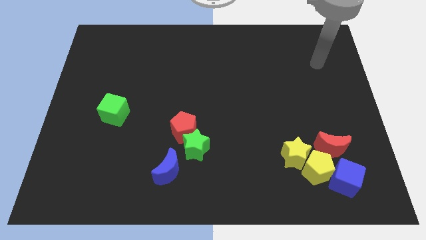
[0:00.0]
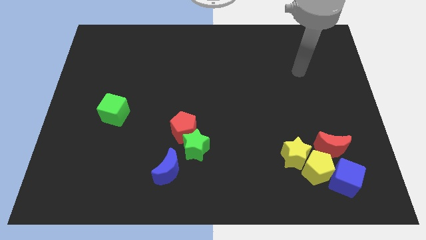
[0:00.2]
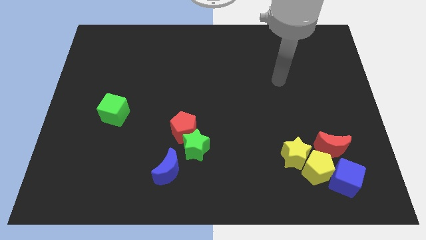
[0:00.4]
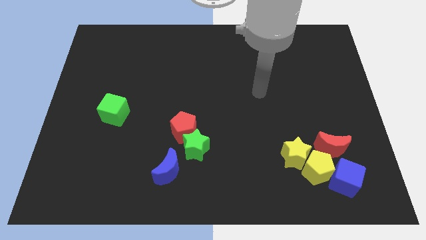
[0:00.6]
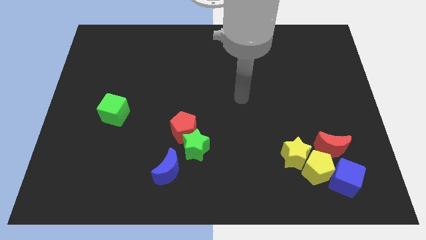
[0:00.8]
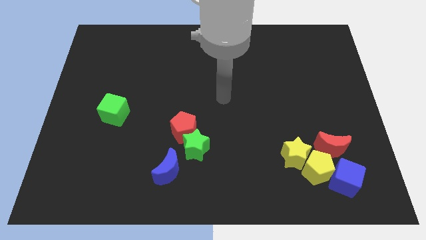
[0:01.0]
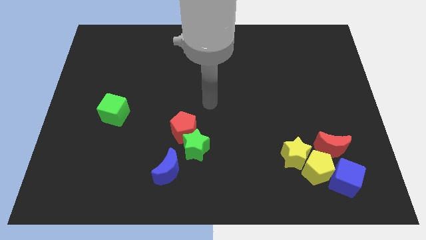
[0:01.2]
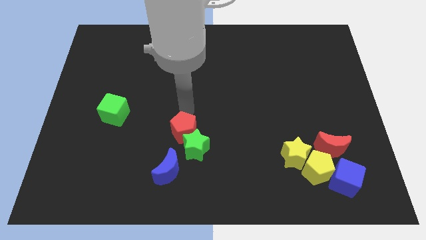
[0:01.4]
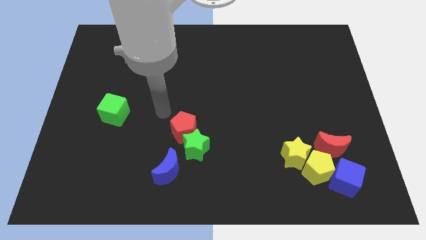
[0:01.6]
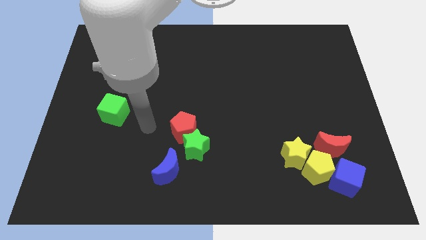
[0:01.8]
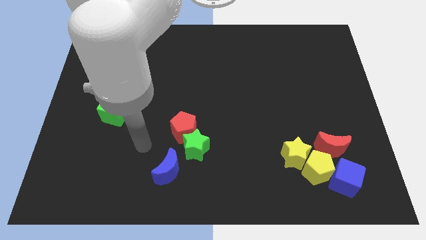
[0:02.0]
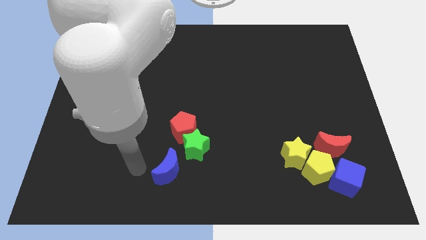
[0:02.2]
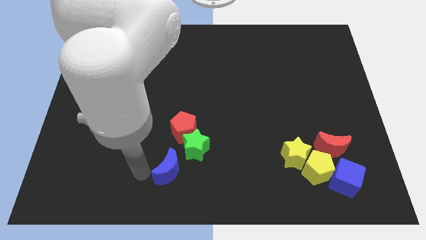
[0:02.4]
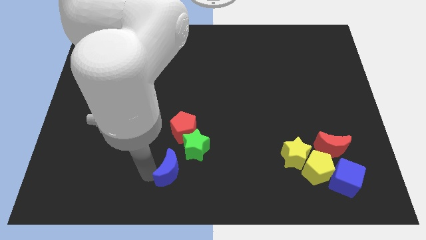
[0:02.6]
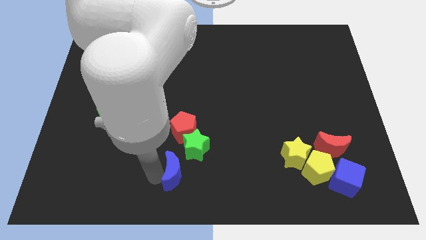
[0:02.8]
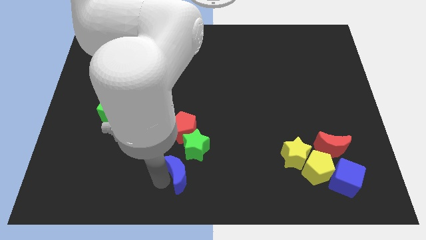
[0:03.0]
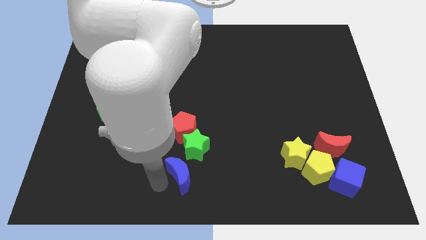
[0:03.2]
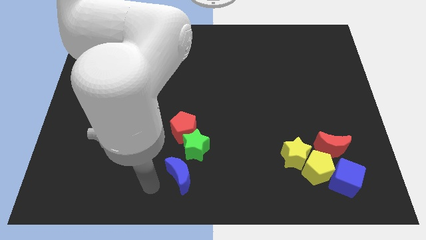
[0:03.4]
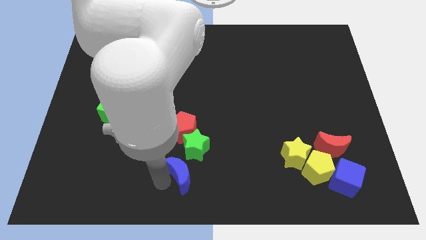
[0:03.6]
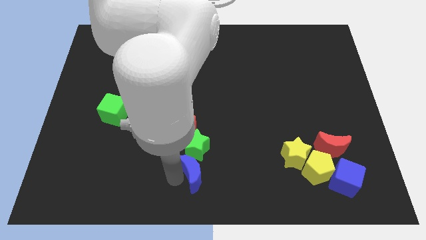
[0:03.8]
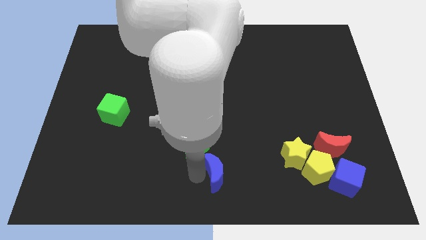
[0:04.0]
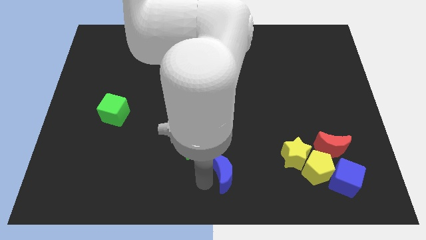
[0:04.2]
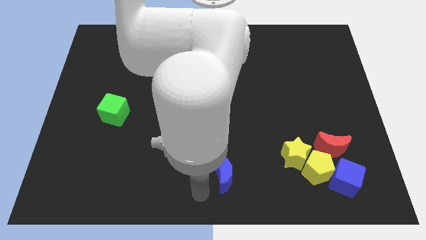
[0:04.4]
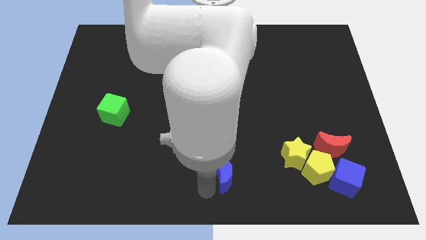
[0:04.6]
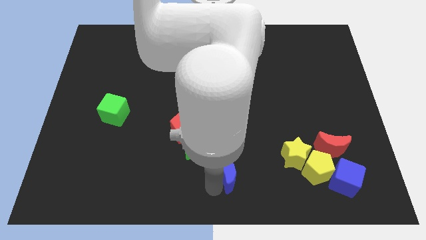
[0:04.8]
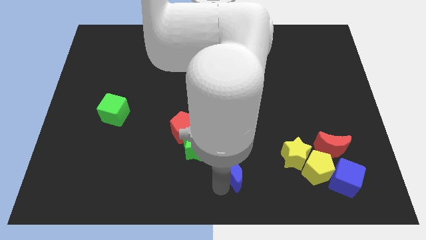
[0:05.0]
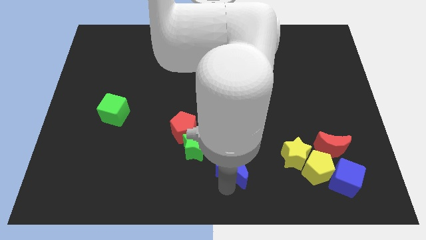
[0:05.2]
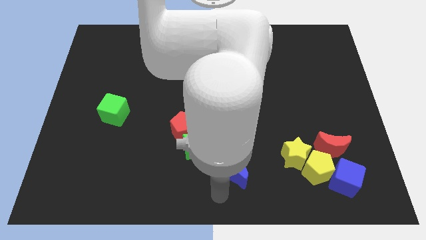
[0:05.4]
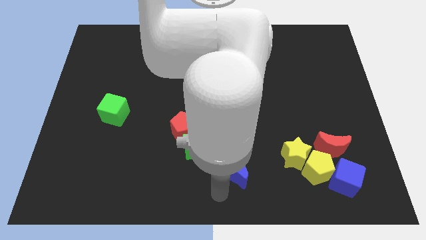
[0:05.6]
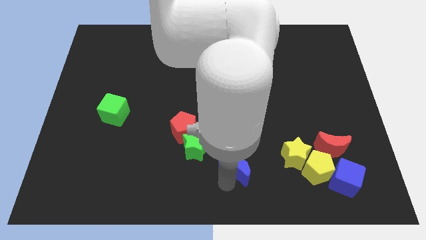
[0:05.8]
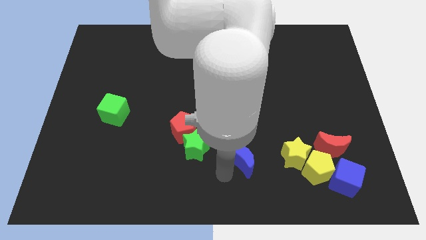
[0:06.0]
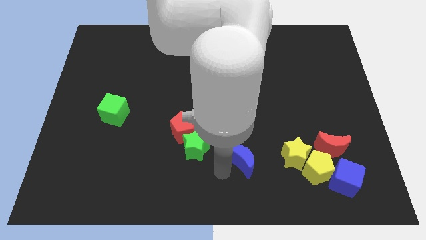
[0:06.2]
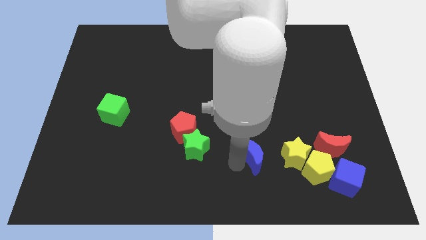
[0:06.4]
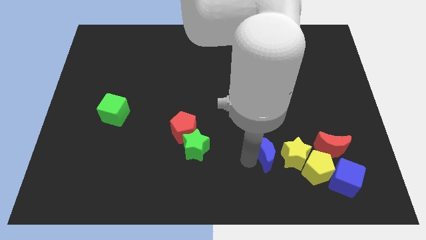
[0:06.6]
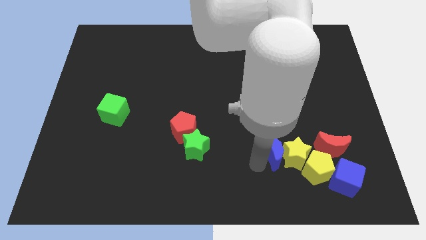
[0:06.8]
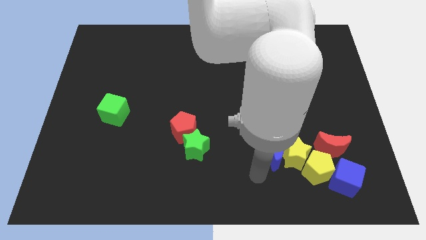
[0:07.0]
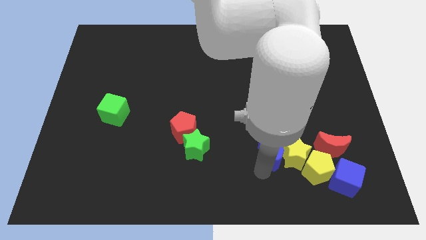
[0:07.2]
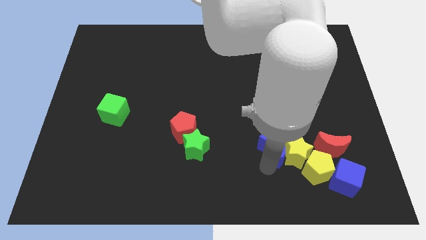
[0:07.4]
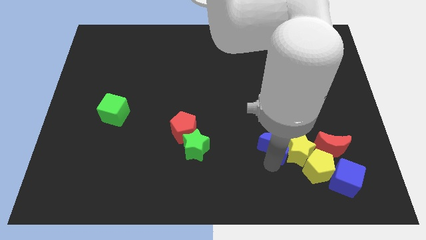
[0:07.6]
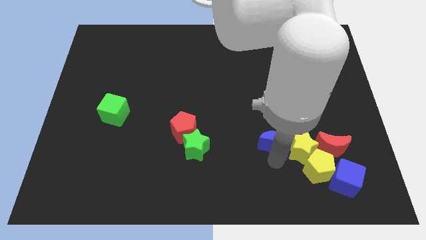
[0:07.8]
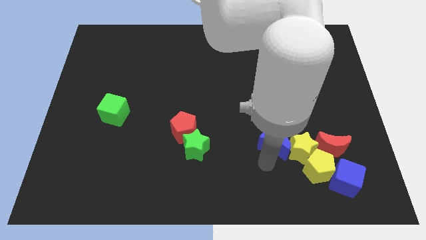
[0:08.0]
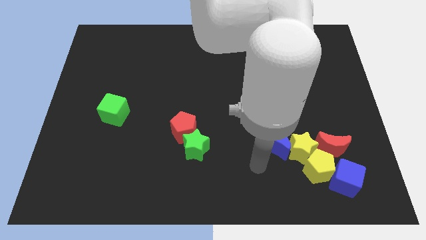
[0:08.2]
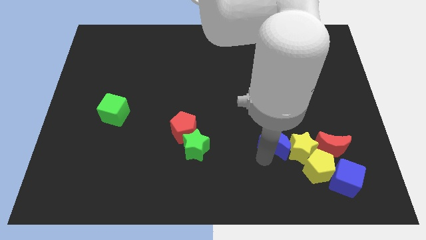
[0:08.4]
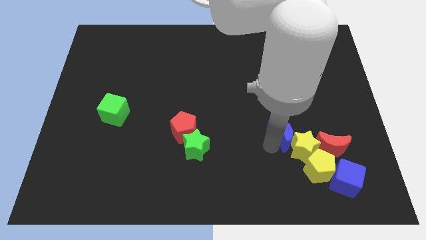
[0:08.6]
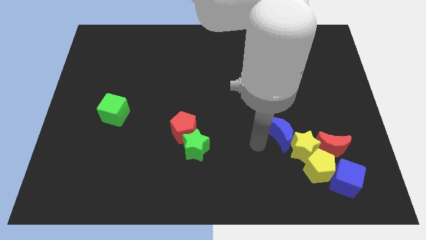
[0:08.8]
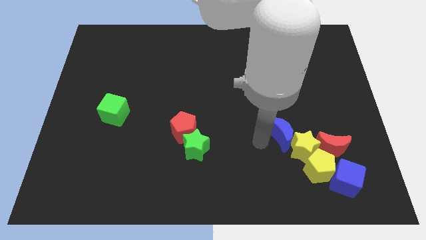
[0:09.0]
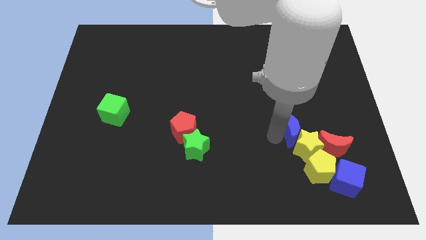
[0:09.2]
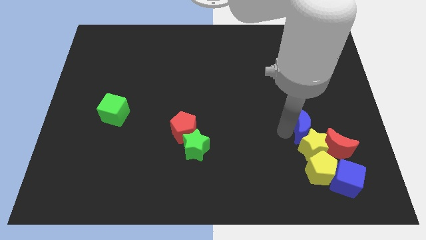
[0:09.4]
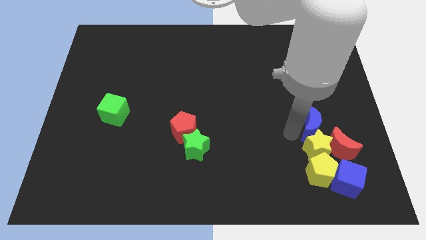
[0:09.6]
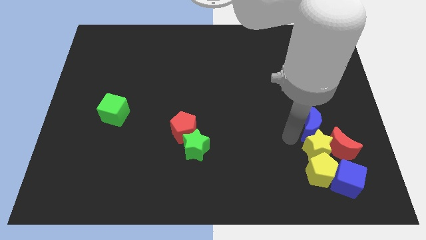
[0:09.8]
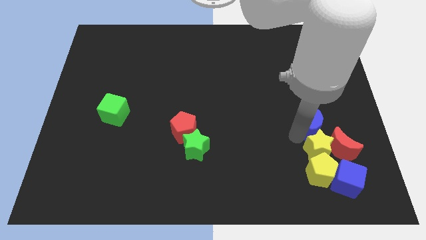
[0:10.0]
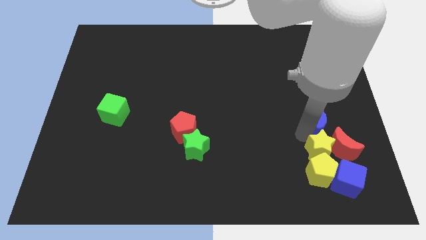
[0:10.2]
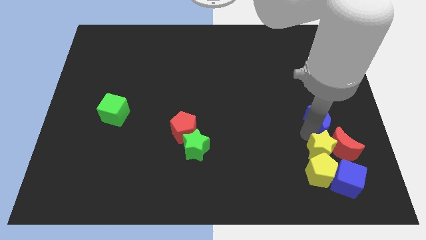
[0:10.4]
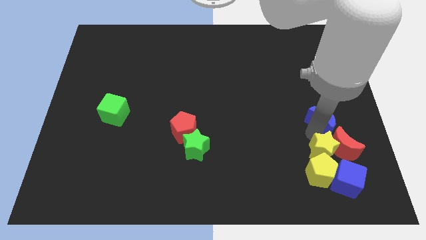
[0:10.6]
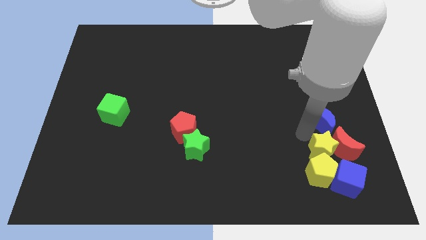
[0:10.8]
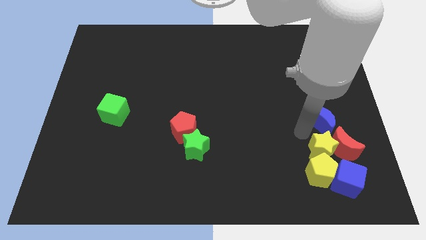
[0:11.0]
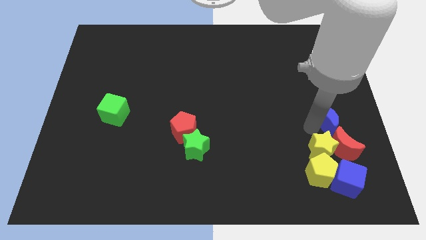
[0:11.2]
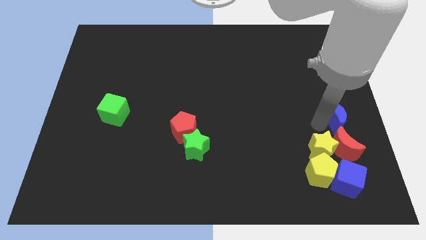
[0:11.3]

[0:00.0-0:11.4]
push the blue moon to the right side of the board

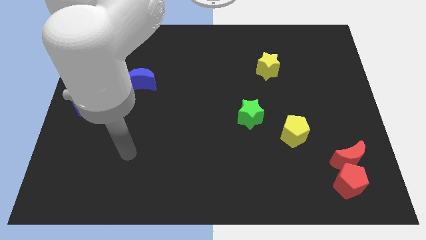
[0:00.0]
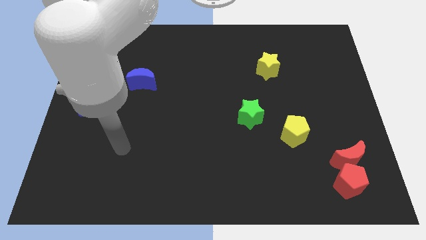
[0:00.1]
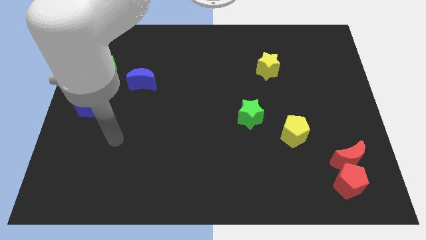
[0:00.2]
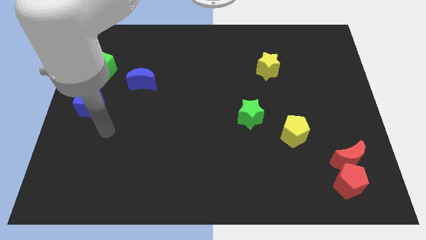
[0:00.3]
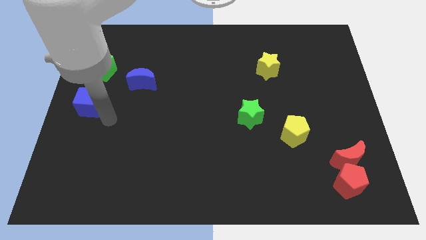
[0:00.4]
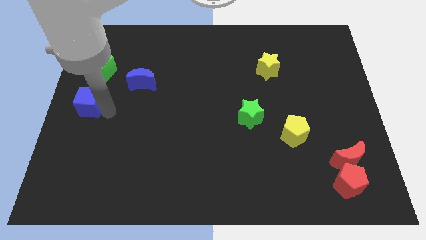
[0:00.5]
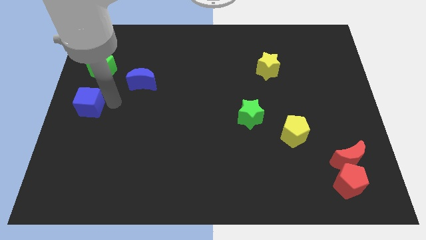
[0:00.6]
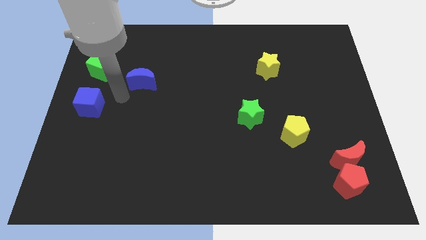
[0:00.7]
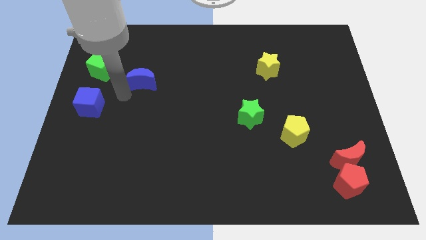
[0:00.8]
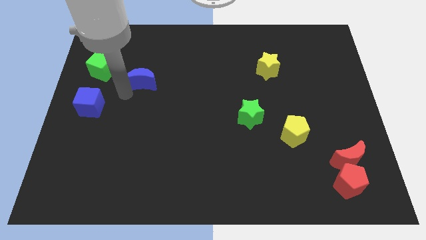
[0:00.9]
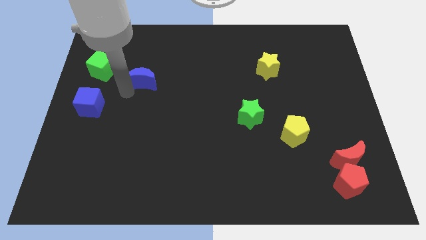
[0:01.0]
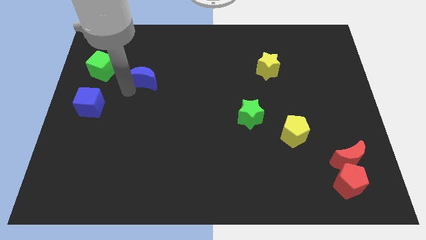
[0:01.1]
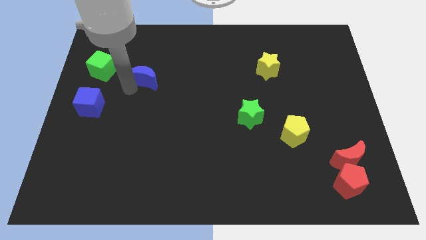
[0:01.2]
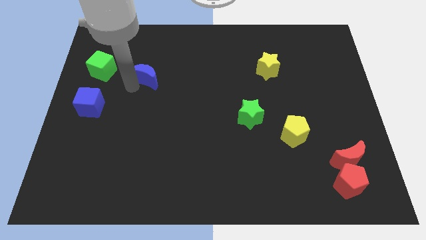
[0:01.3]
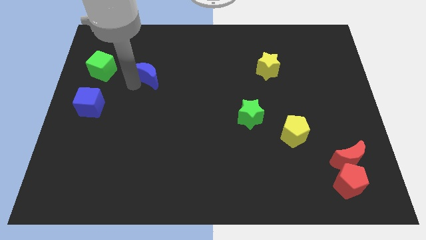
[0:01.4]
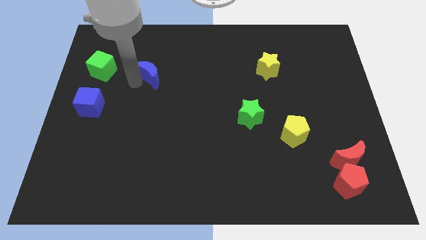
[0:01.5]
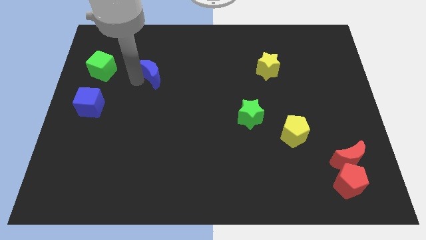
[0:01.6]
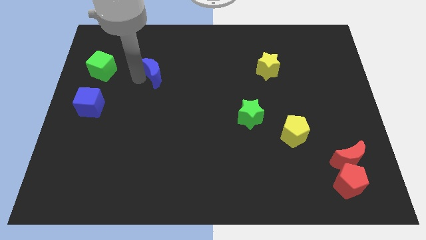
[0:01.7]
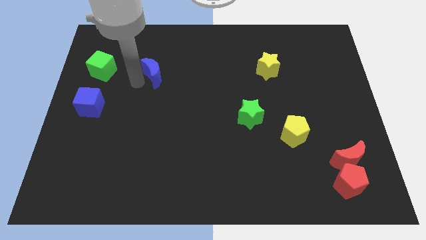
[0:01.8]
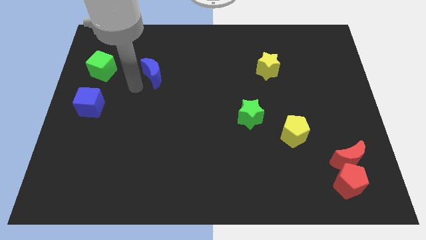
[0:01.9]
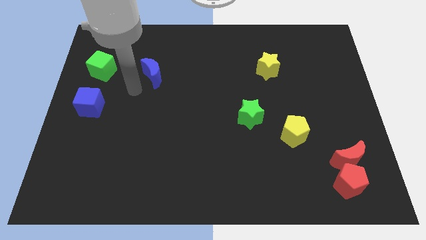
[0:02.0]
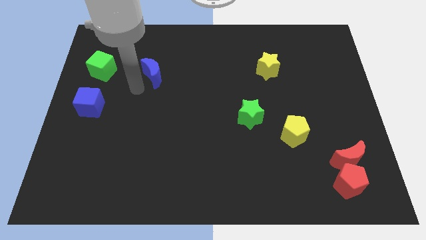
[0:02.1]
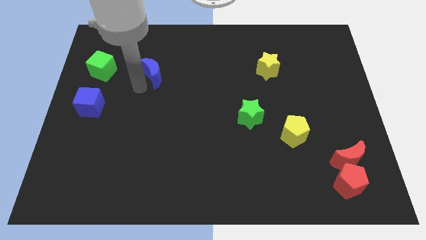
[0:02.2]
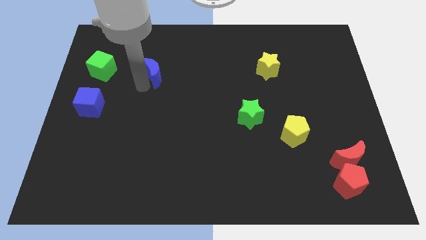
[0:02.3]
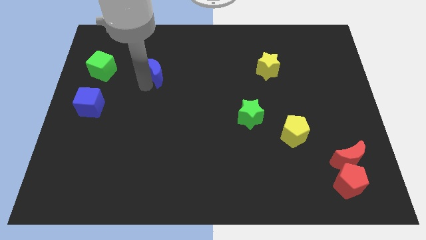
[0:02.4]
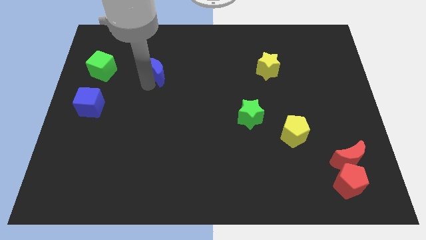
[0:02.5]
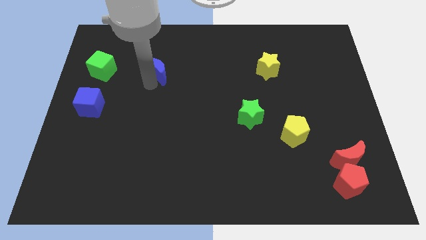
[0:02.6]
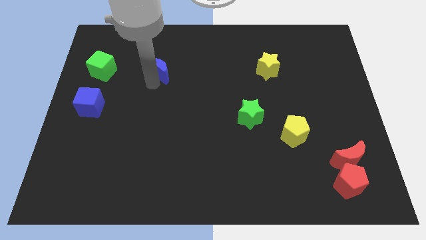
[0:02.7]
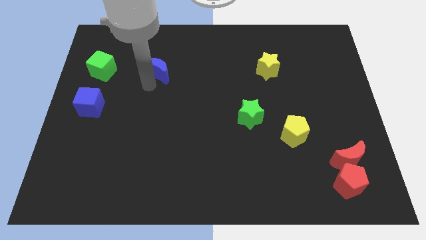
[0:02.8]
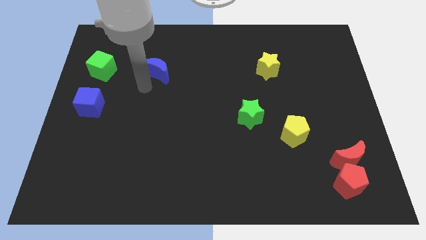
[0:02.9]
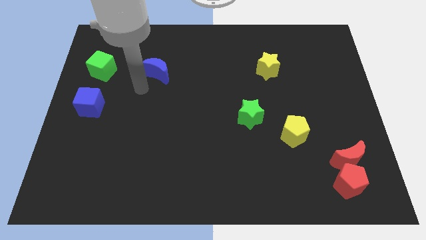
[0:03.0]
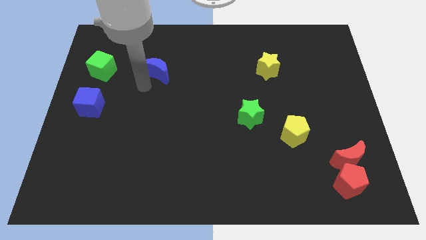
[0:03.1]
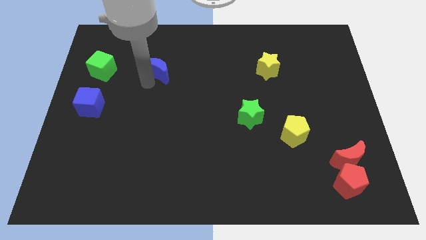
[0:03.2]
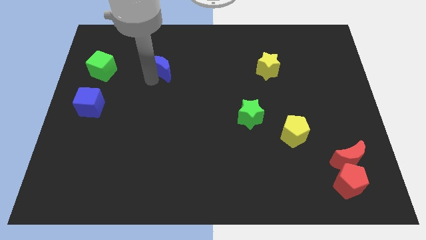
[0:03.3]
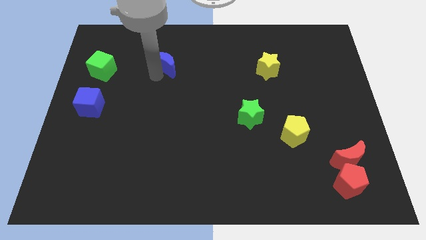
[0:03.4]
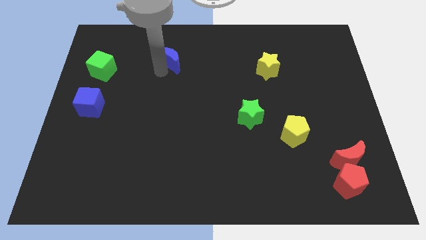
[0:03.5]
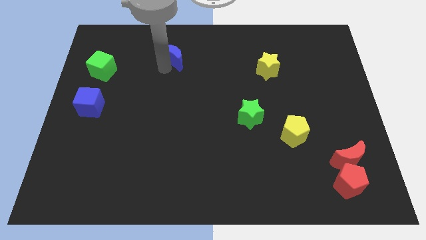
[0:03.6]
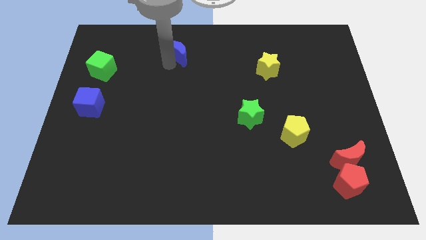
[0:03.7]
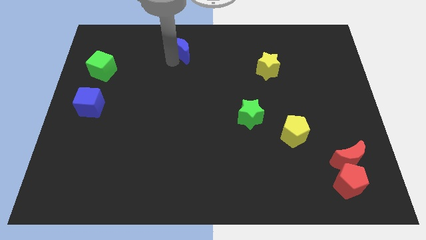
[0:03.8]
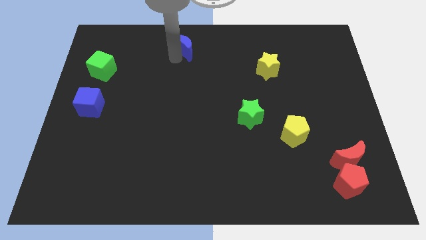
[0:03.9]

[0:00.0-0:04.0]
move the blue moon to the towards your base
